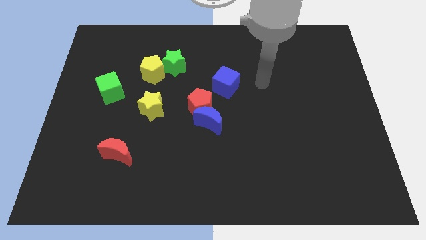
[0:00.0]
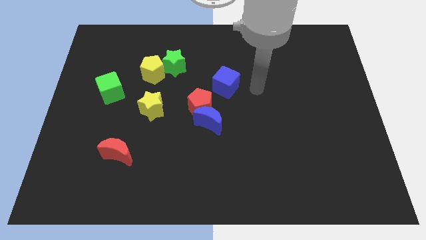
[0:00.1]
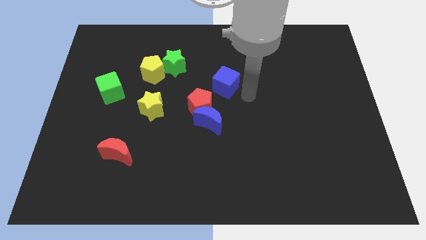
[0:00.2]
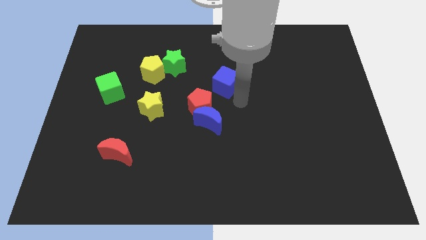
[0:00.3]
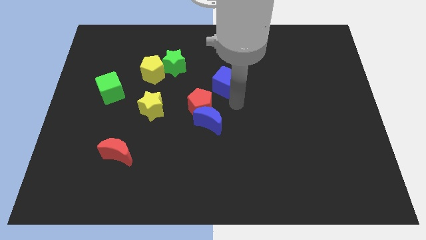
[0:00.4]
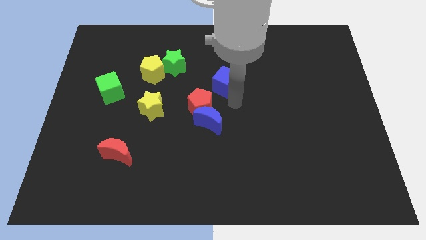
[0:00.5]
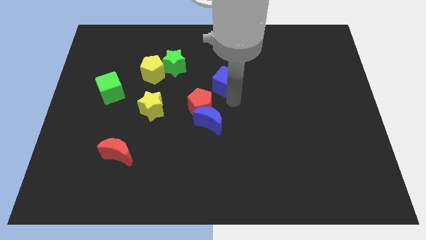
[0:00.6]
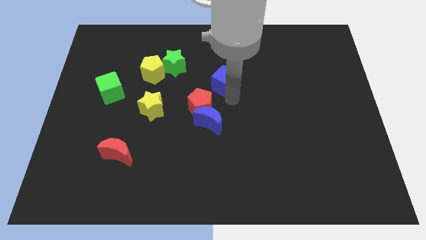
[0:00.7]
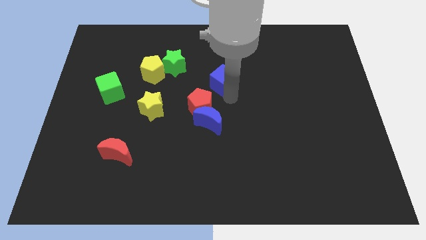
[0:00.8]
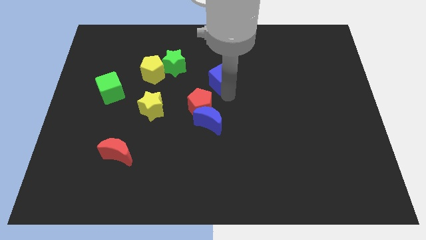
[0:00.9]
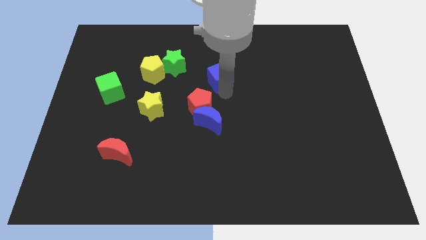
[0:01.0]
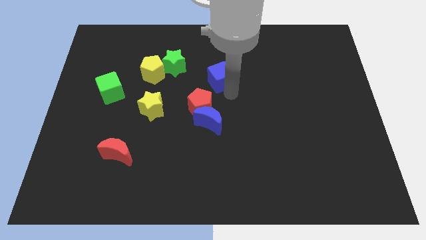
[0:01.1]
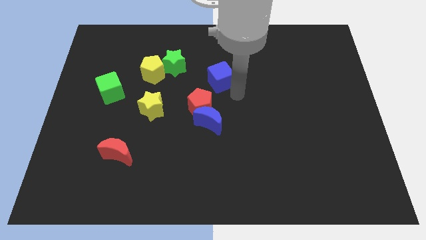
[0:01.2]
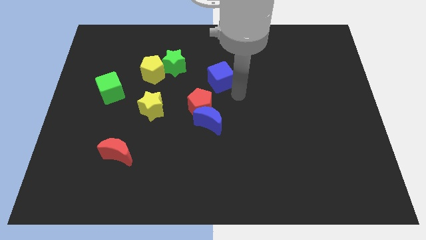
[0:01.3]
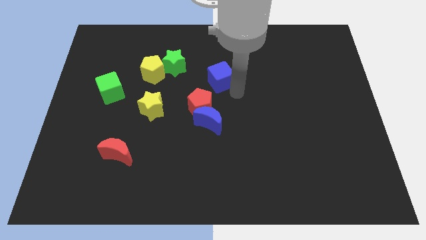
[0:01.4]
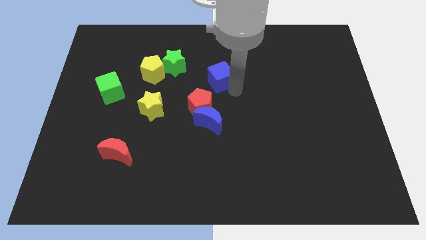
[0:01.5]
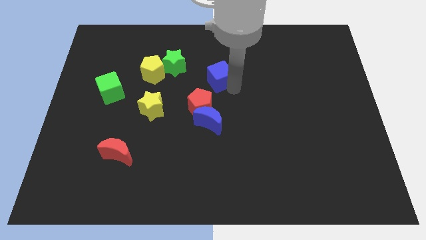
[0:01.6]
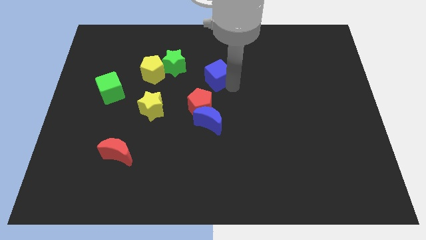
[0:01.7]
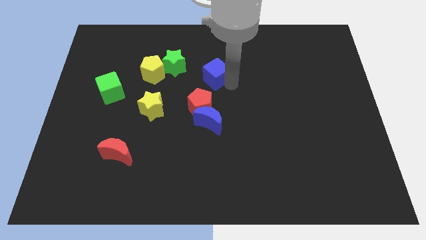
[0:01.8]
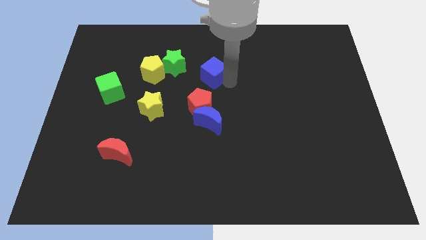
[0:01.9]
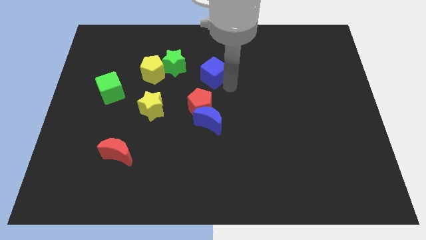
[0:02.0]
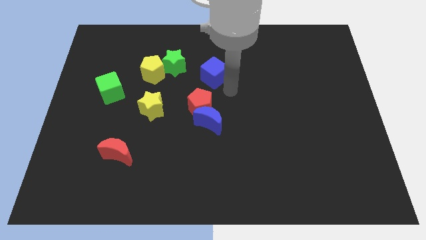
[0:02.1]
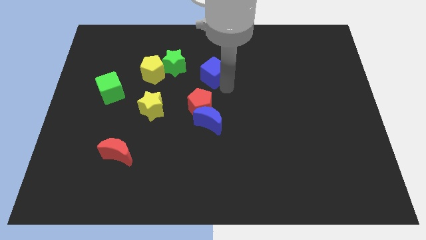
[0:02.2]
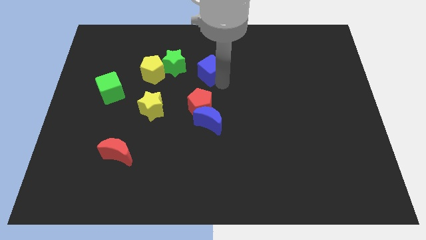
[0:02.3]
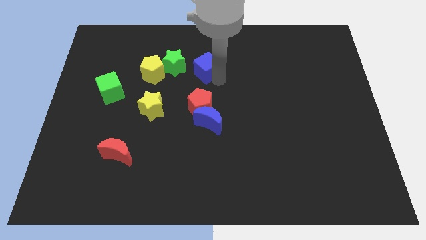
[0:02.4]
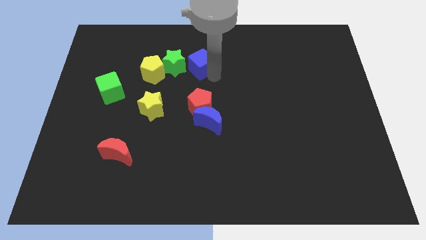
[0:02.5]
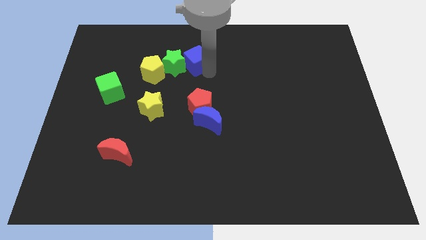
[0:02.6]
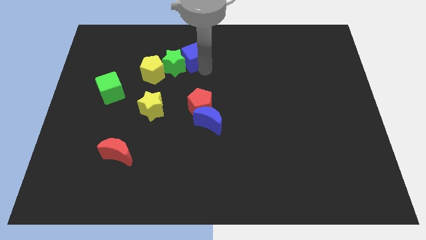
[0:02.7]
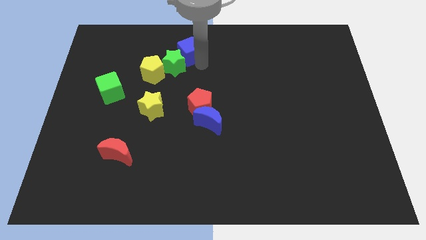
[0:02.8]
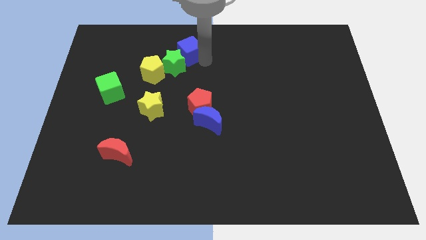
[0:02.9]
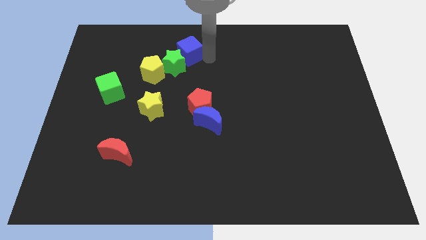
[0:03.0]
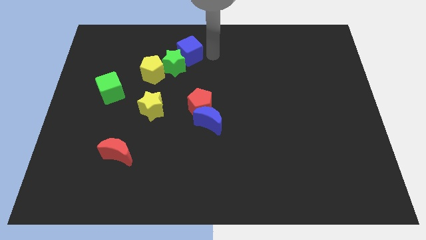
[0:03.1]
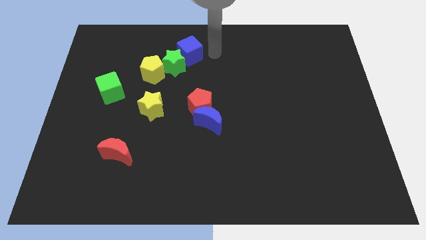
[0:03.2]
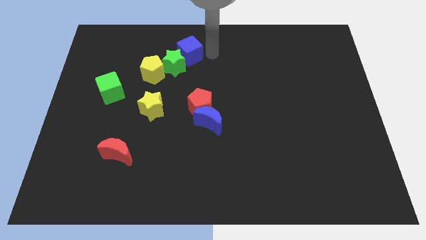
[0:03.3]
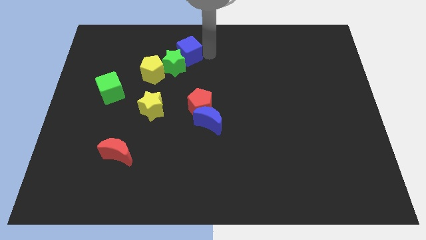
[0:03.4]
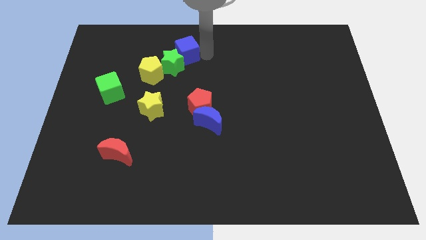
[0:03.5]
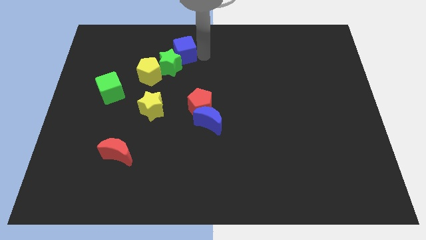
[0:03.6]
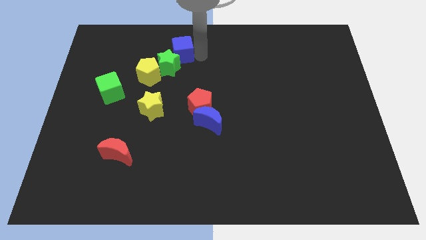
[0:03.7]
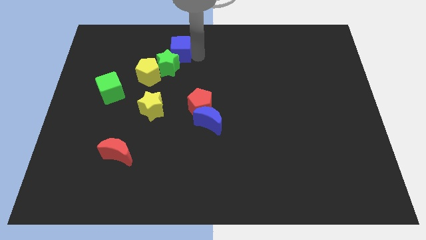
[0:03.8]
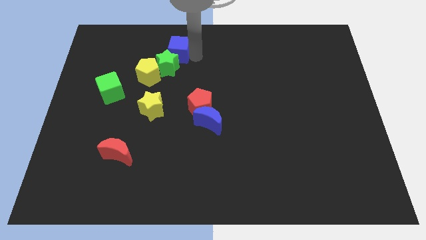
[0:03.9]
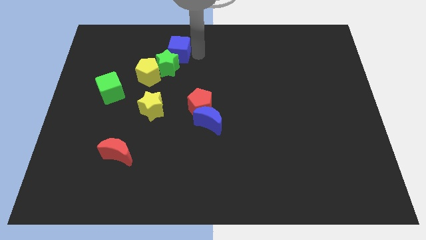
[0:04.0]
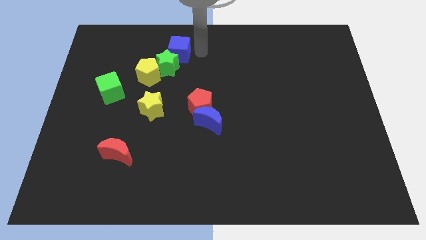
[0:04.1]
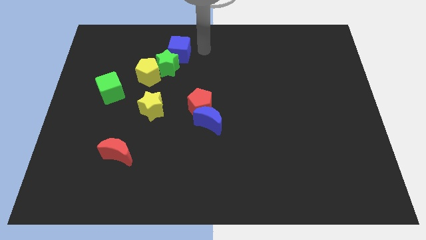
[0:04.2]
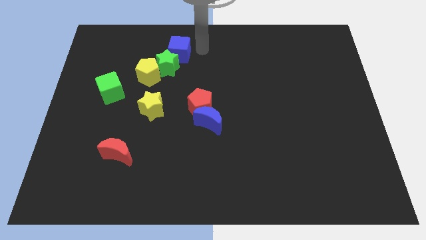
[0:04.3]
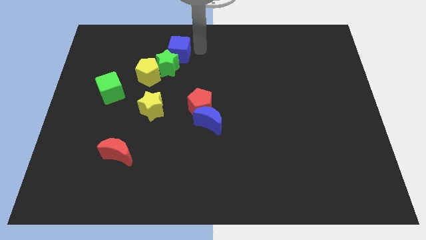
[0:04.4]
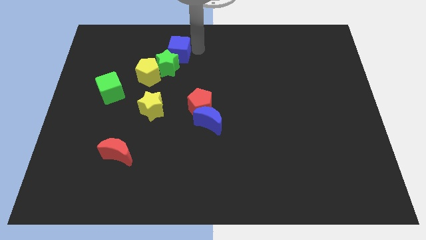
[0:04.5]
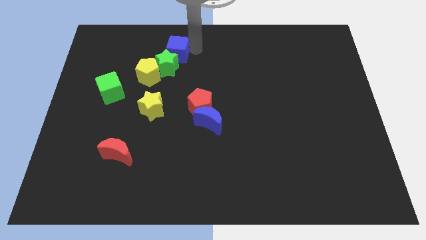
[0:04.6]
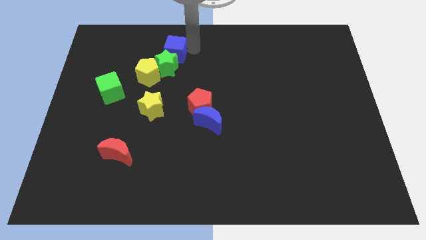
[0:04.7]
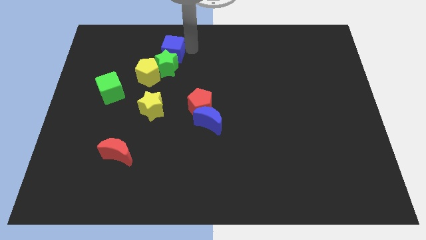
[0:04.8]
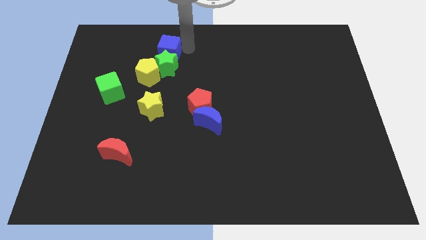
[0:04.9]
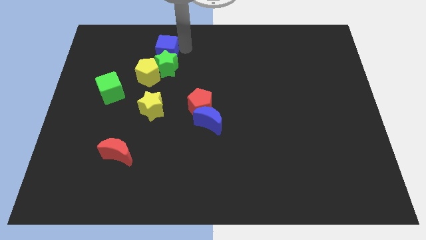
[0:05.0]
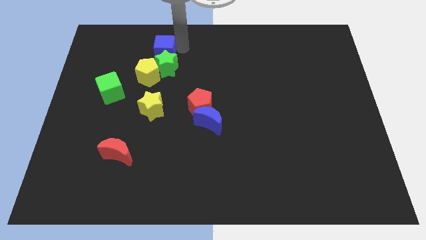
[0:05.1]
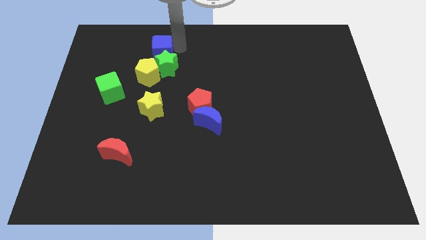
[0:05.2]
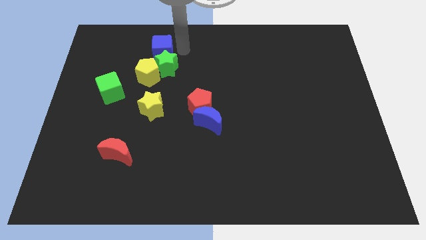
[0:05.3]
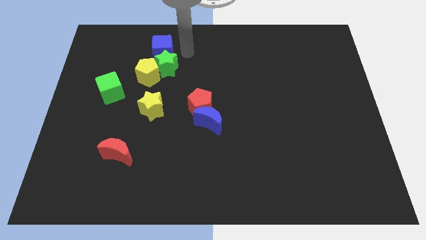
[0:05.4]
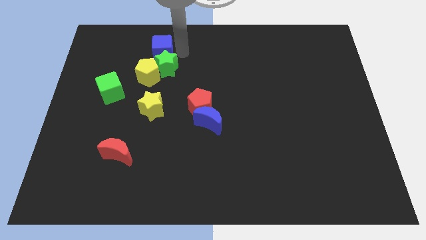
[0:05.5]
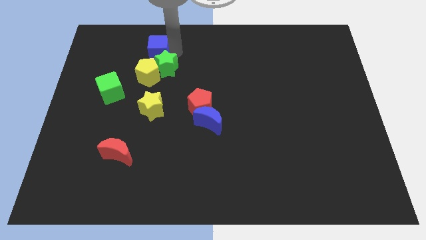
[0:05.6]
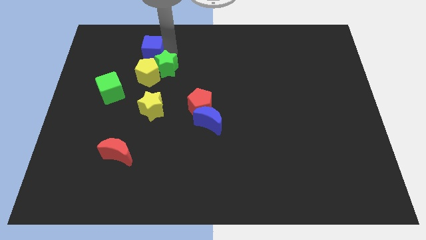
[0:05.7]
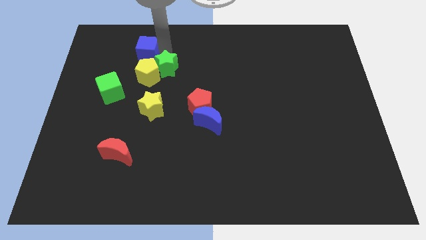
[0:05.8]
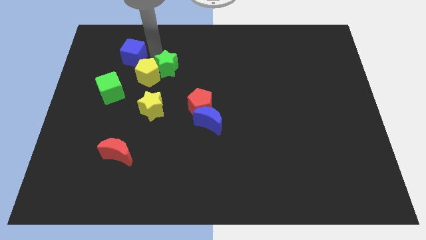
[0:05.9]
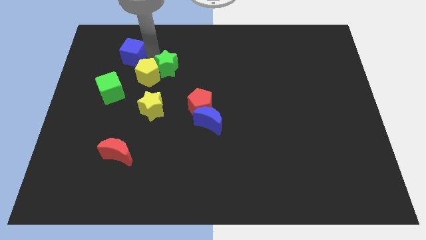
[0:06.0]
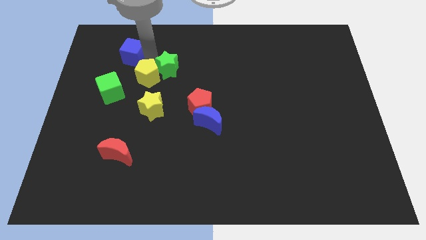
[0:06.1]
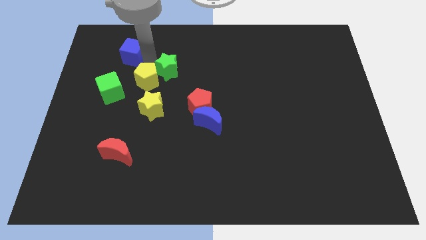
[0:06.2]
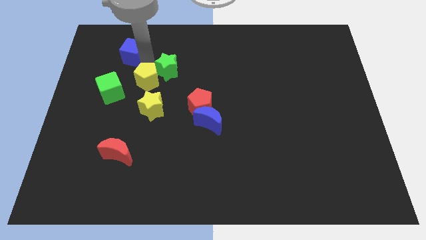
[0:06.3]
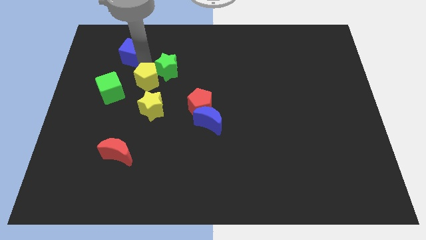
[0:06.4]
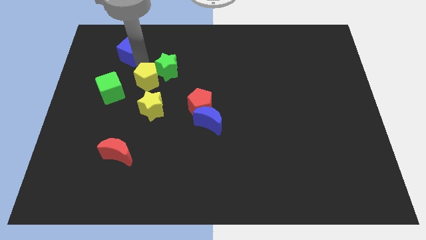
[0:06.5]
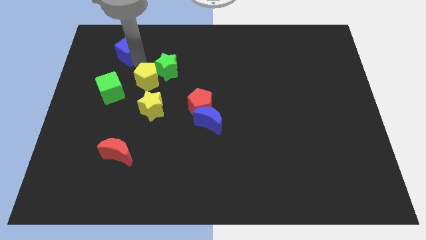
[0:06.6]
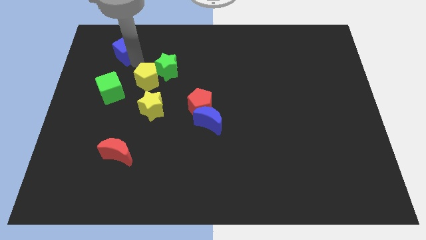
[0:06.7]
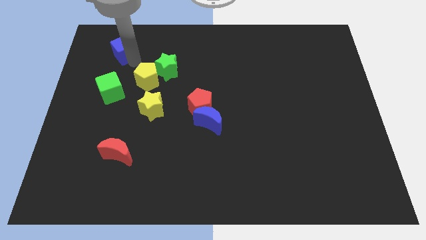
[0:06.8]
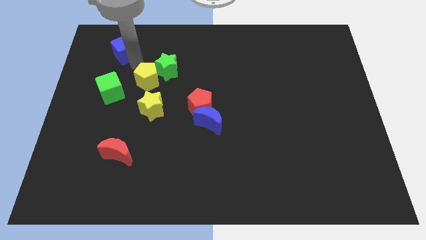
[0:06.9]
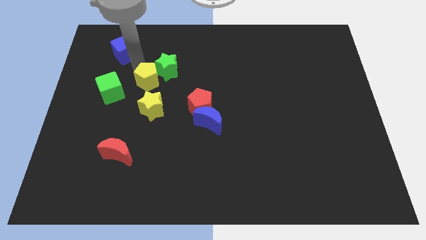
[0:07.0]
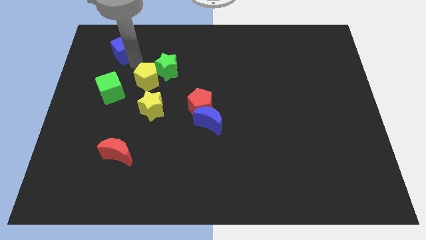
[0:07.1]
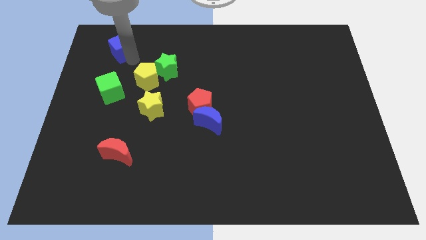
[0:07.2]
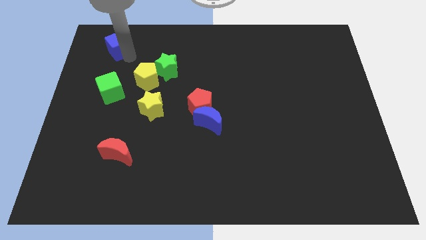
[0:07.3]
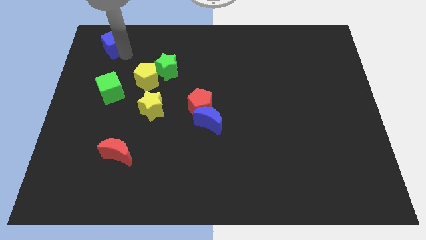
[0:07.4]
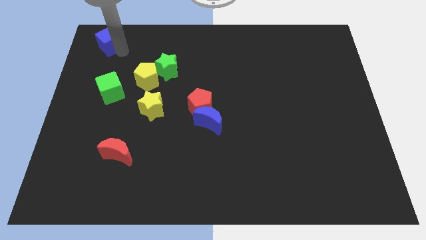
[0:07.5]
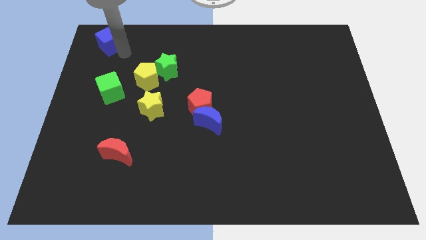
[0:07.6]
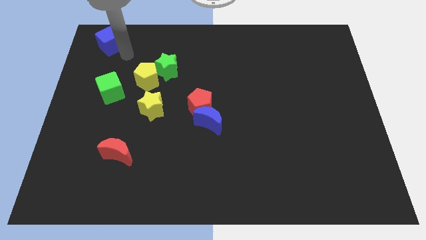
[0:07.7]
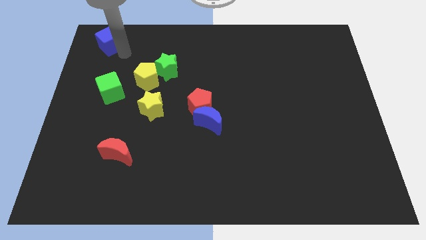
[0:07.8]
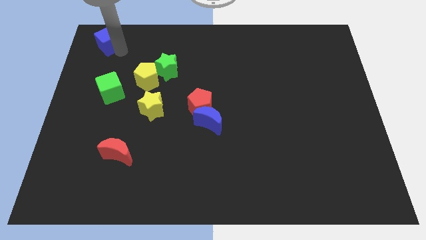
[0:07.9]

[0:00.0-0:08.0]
move the blue cube to the upper left corner
